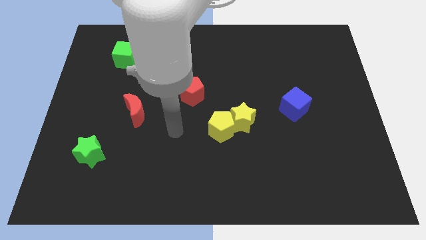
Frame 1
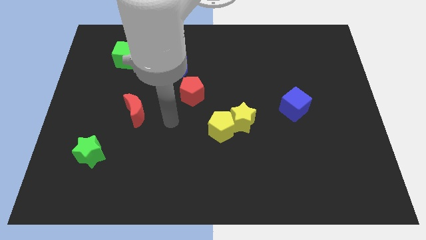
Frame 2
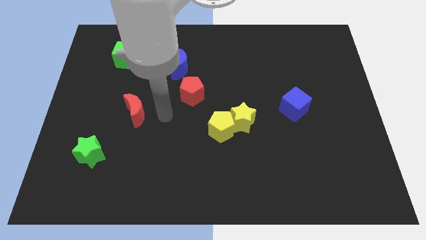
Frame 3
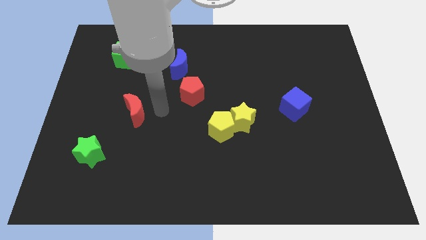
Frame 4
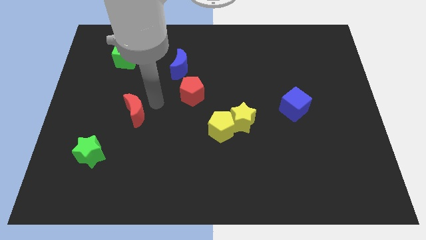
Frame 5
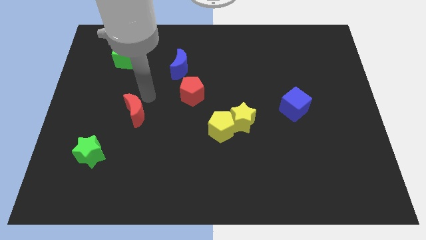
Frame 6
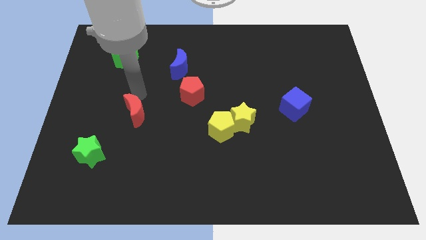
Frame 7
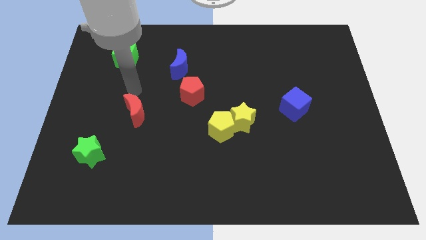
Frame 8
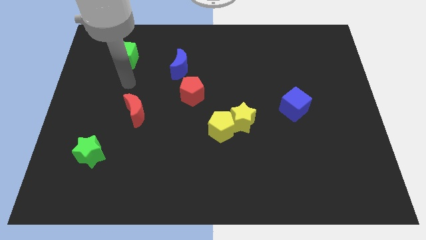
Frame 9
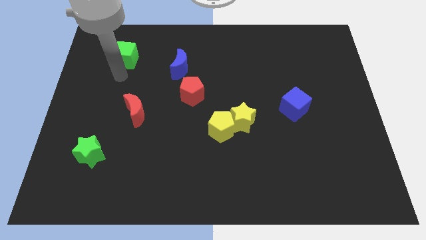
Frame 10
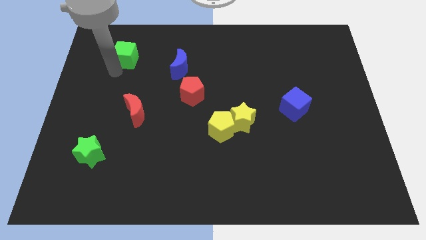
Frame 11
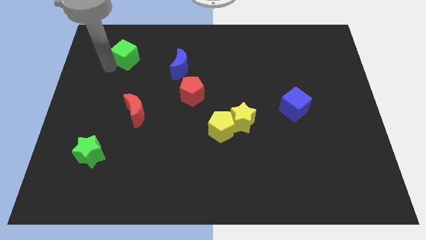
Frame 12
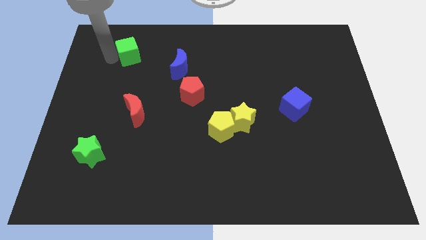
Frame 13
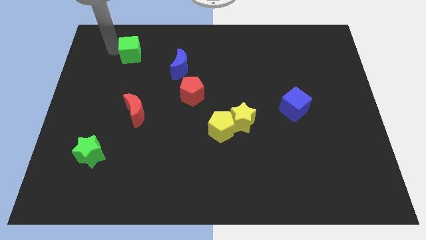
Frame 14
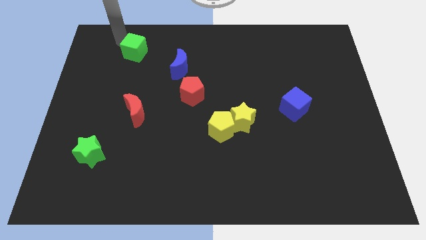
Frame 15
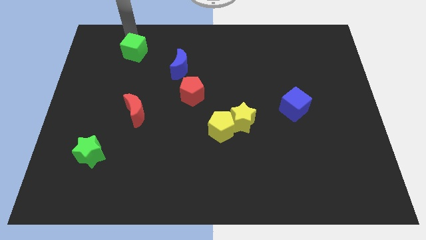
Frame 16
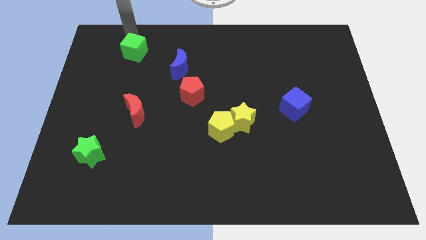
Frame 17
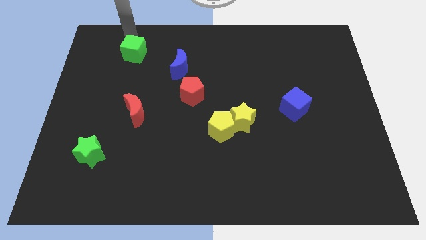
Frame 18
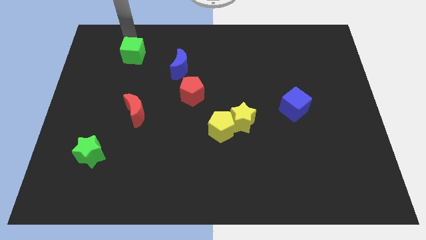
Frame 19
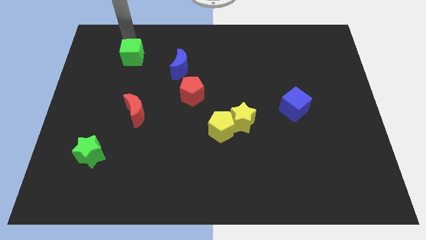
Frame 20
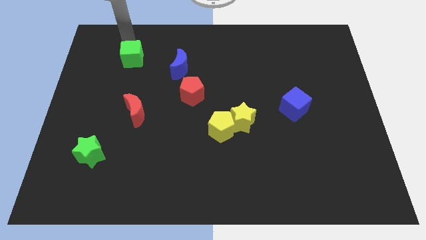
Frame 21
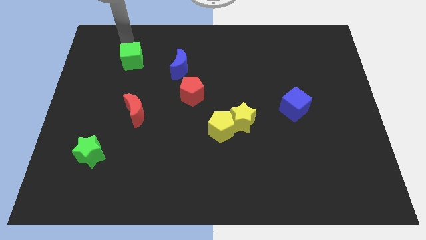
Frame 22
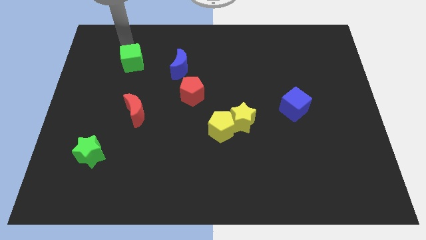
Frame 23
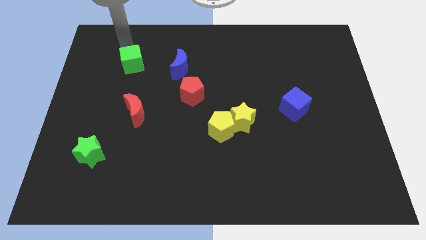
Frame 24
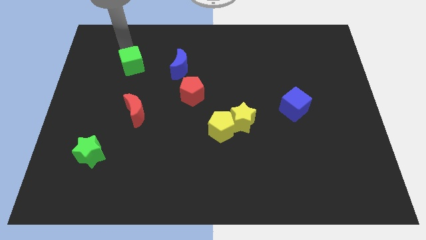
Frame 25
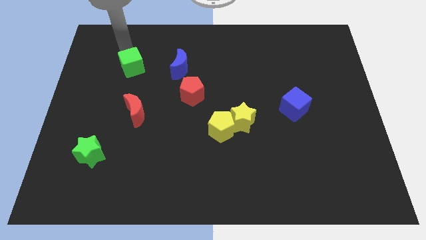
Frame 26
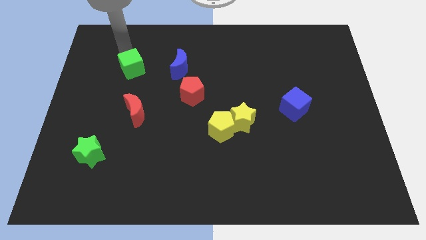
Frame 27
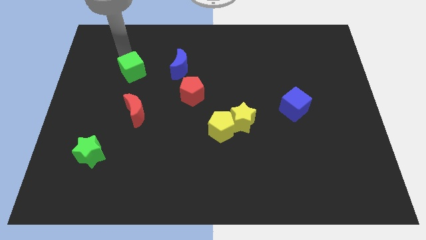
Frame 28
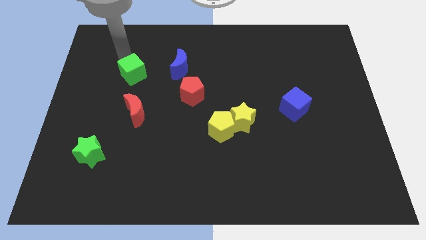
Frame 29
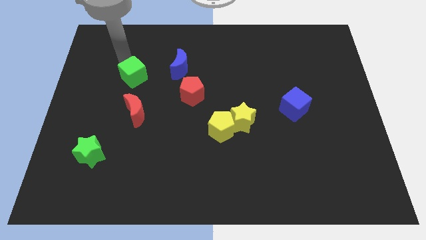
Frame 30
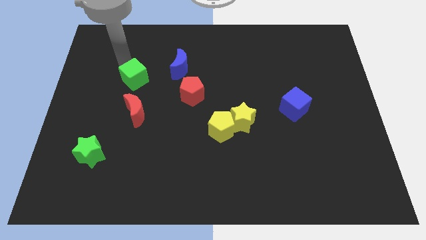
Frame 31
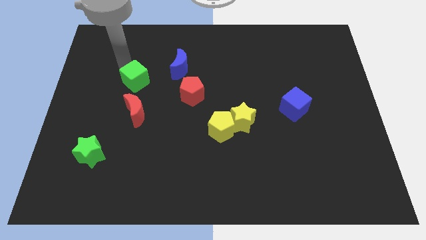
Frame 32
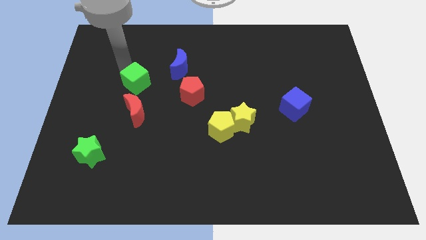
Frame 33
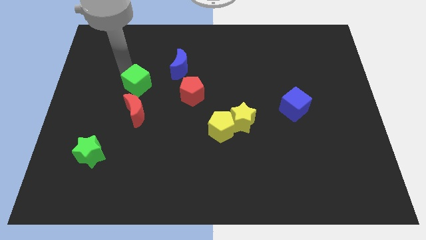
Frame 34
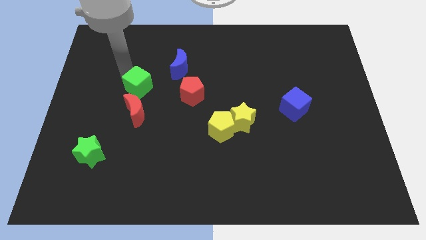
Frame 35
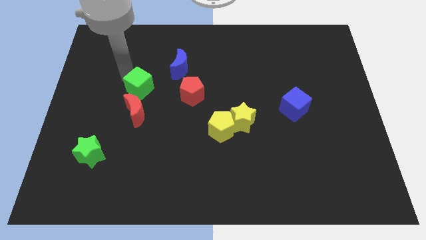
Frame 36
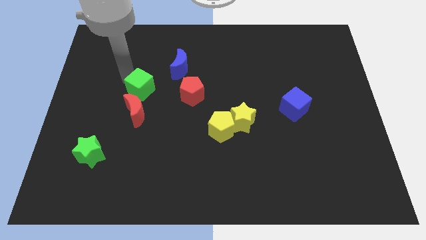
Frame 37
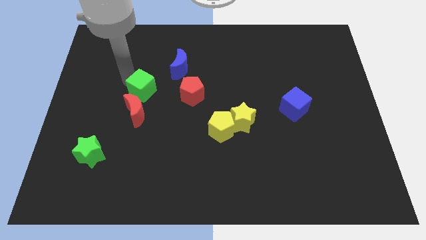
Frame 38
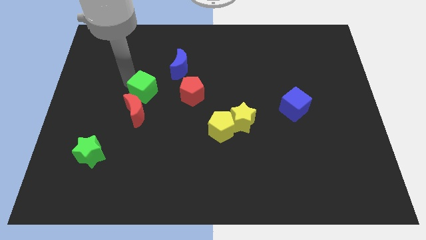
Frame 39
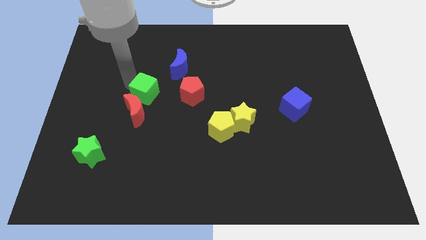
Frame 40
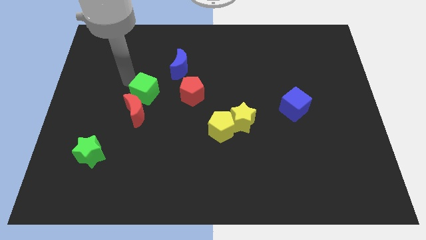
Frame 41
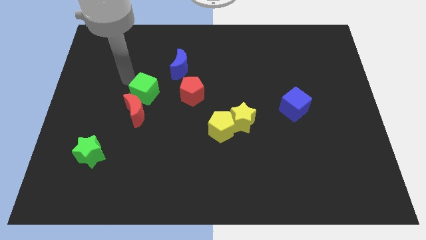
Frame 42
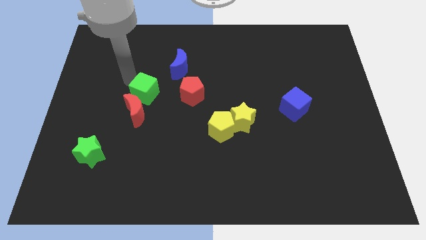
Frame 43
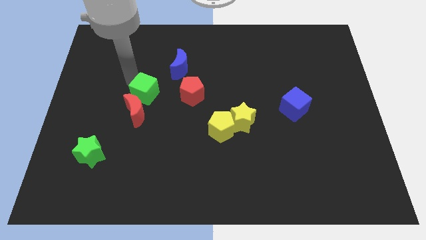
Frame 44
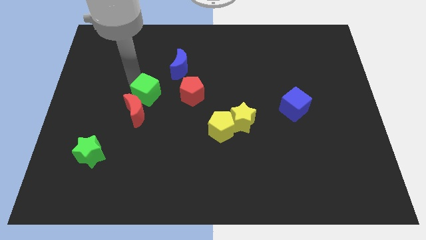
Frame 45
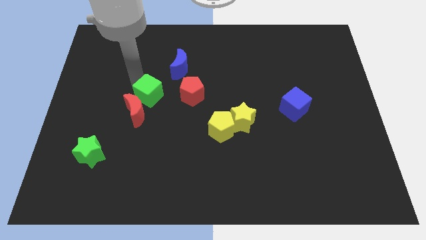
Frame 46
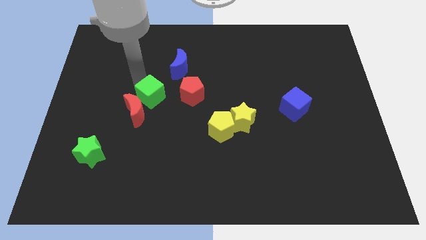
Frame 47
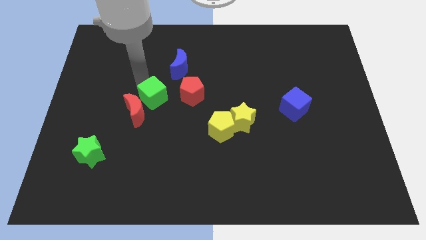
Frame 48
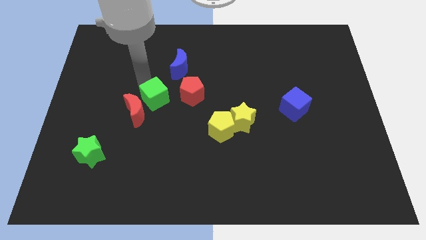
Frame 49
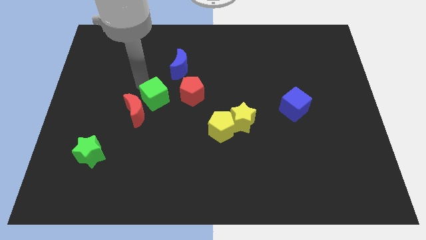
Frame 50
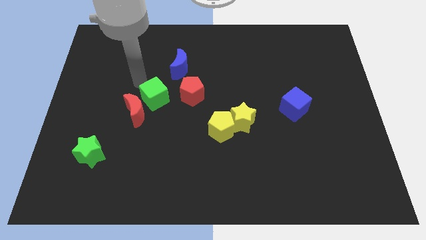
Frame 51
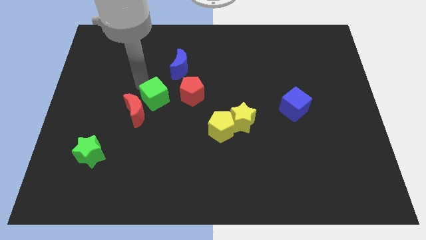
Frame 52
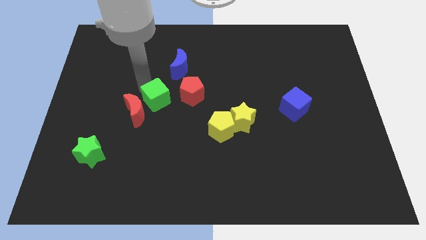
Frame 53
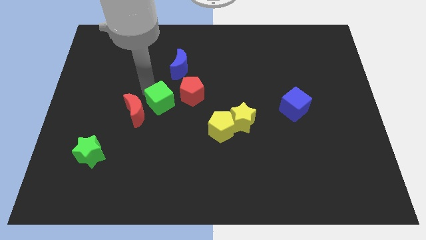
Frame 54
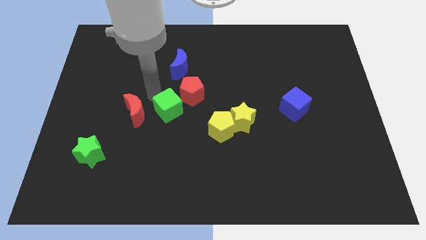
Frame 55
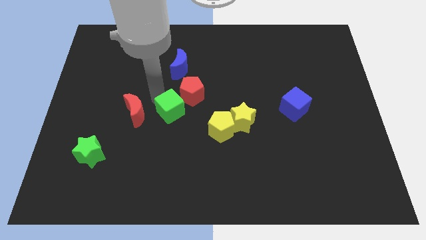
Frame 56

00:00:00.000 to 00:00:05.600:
move the green cube to the bottom side of the red pentagon

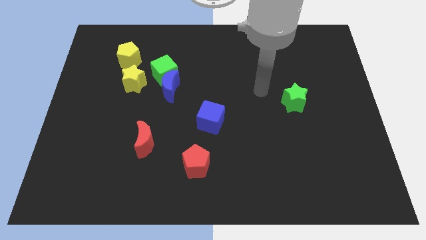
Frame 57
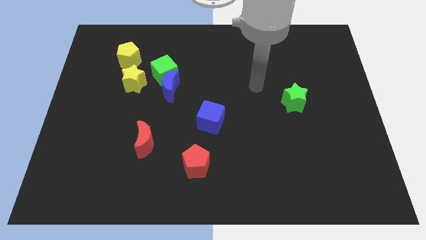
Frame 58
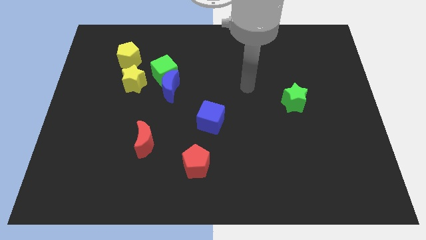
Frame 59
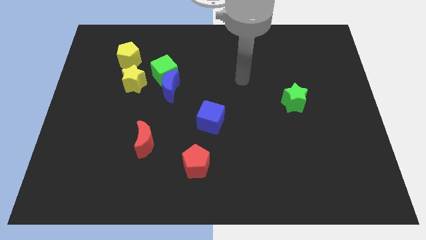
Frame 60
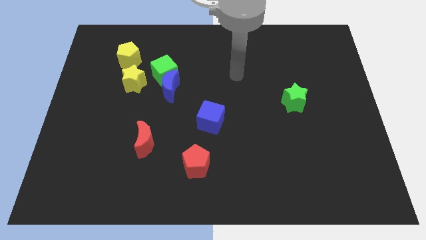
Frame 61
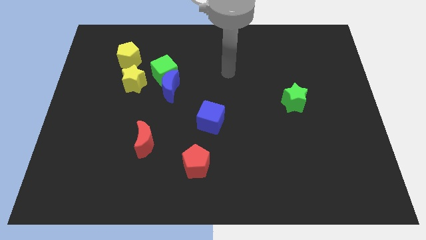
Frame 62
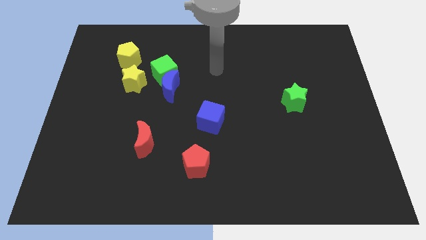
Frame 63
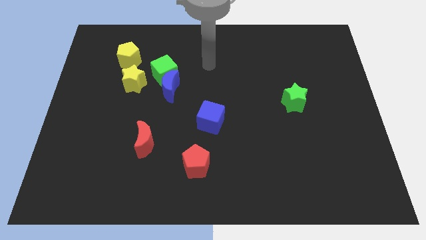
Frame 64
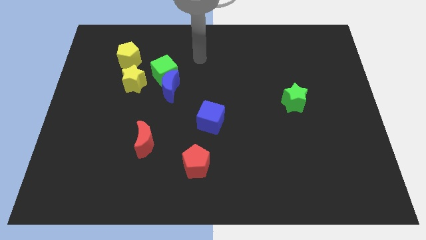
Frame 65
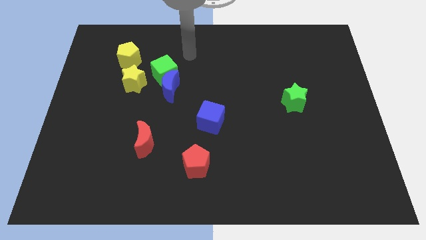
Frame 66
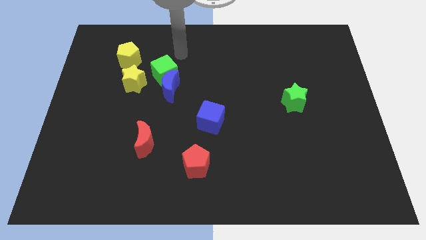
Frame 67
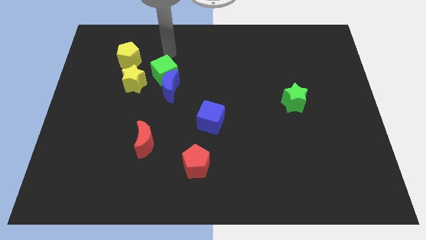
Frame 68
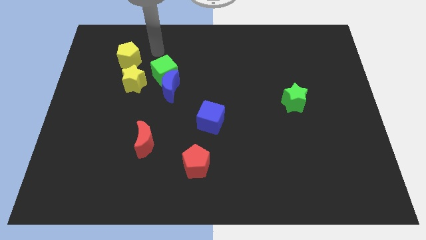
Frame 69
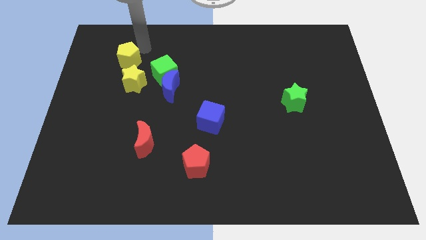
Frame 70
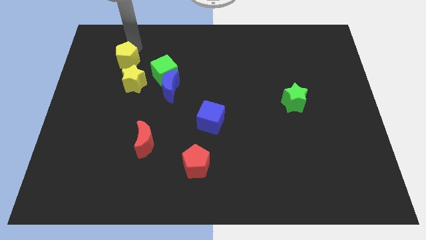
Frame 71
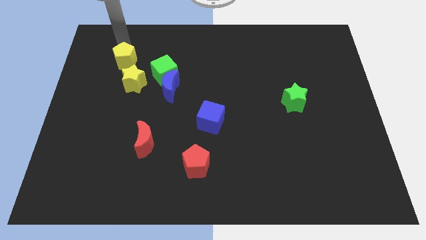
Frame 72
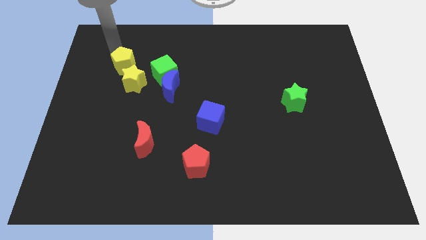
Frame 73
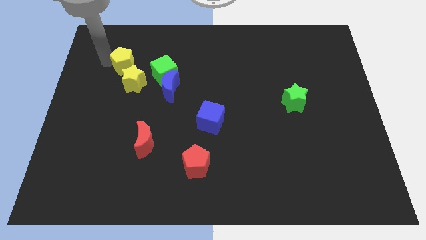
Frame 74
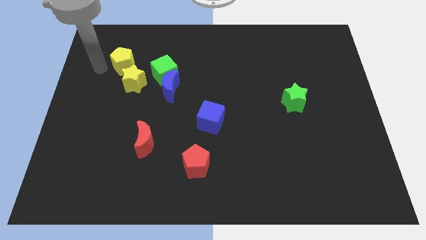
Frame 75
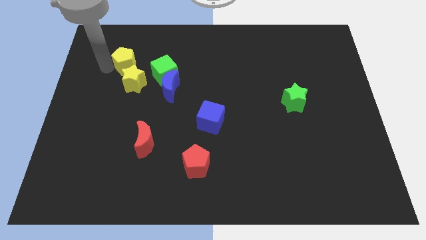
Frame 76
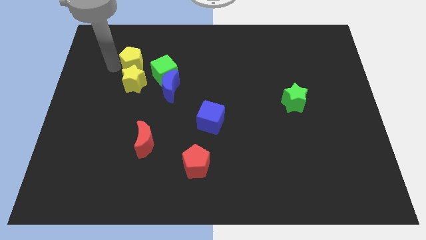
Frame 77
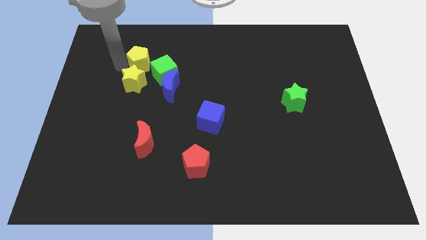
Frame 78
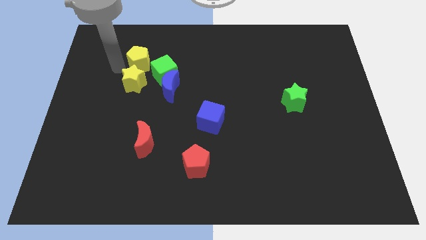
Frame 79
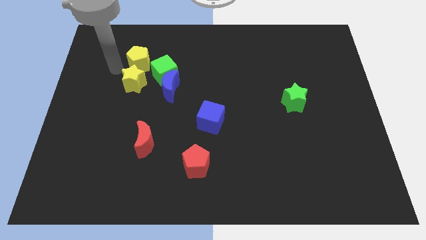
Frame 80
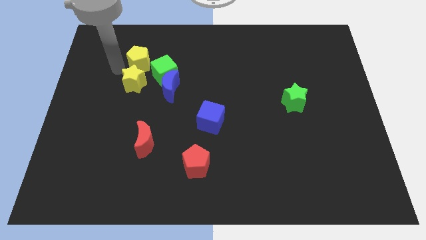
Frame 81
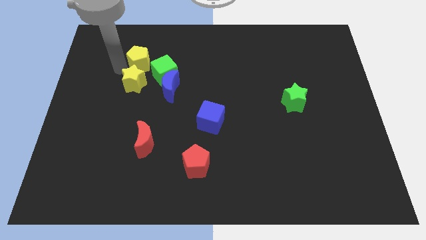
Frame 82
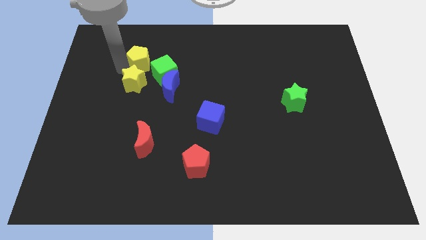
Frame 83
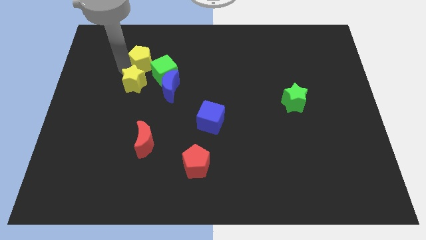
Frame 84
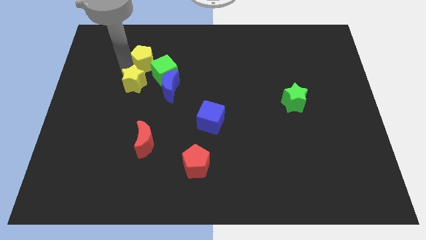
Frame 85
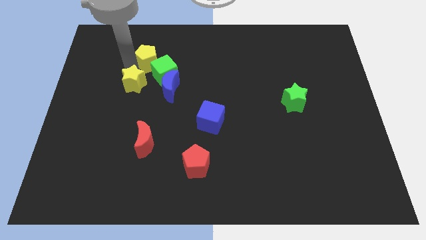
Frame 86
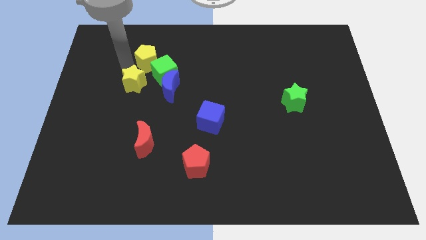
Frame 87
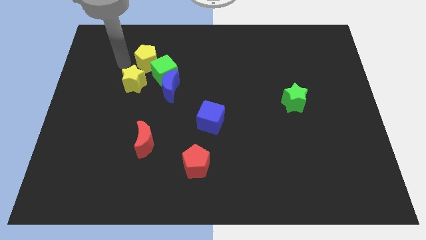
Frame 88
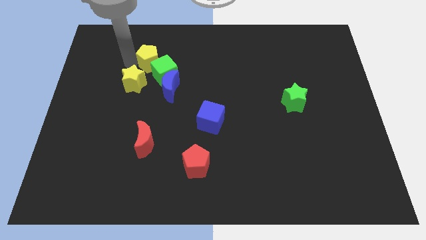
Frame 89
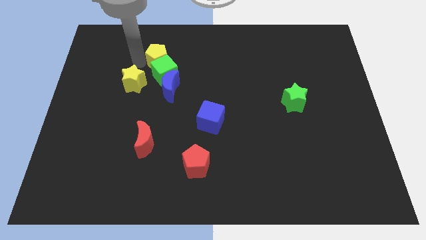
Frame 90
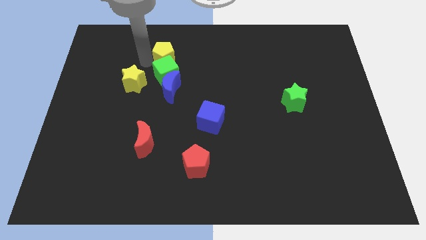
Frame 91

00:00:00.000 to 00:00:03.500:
slide the yellow pentagon to the top right side of the green cube
